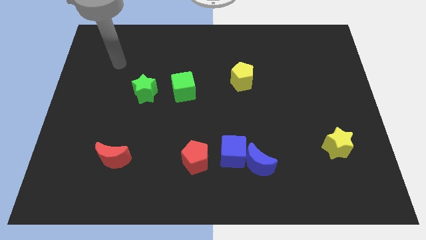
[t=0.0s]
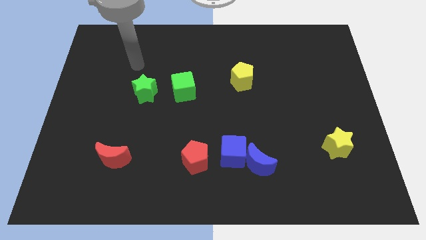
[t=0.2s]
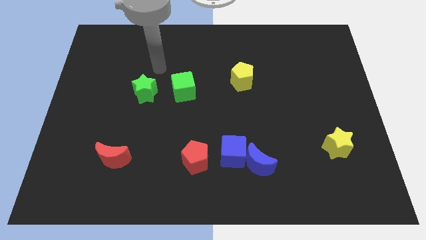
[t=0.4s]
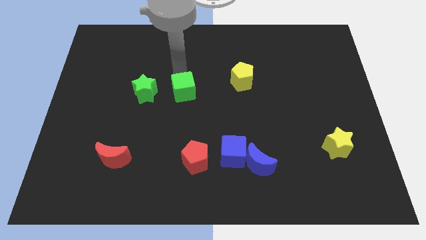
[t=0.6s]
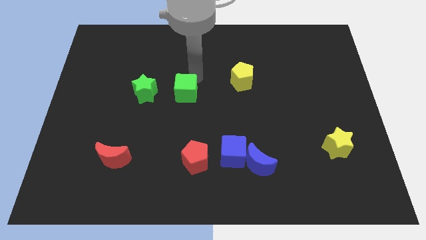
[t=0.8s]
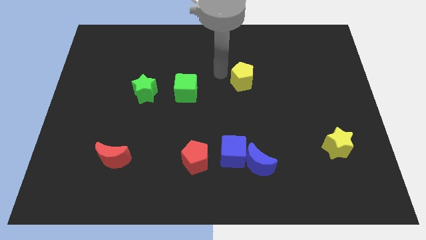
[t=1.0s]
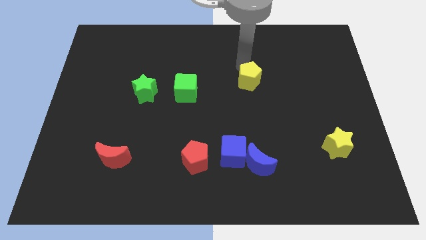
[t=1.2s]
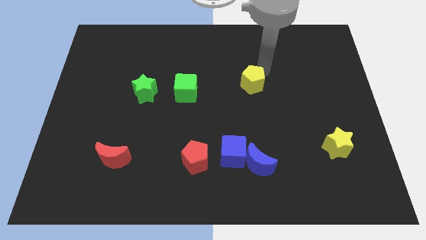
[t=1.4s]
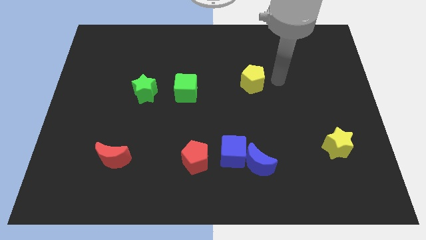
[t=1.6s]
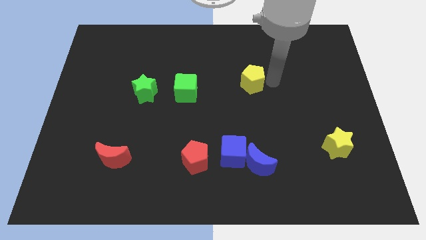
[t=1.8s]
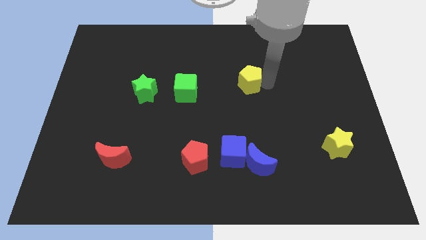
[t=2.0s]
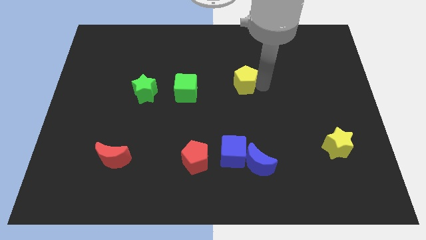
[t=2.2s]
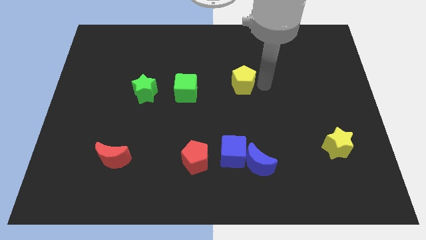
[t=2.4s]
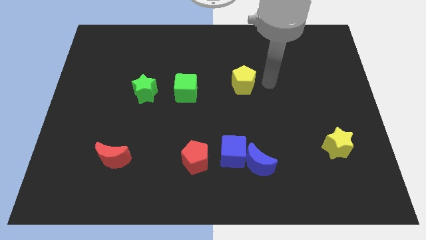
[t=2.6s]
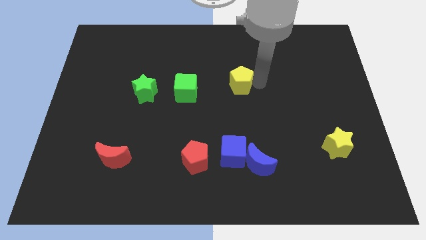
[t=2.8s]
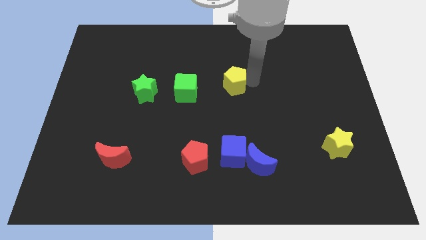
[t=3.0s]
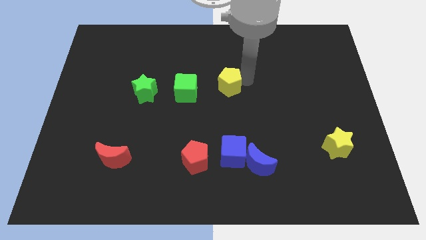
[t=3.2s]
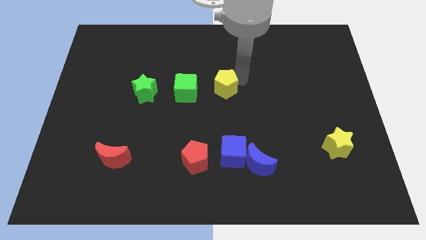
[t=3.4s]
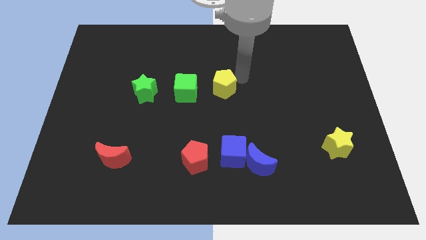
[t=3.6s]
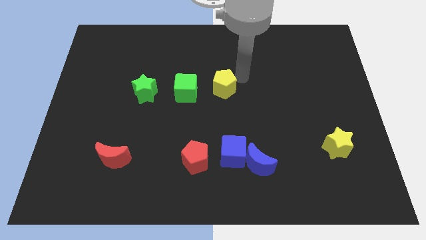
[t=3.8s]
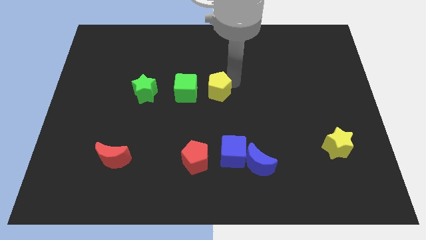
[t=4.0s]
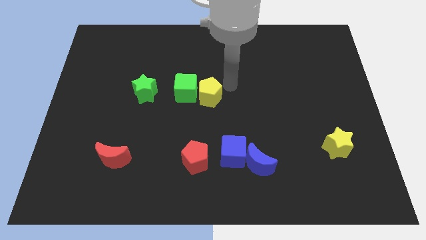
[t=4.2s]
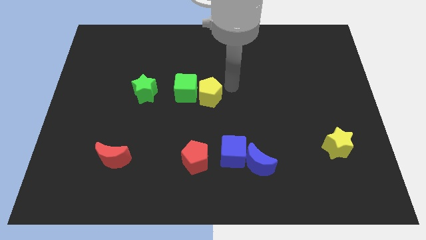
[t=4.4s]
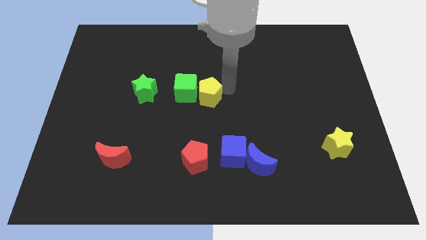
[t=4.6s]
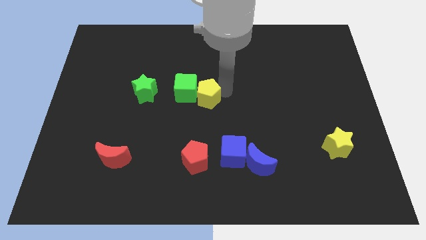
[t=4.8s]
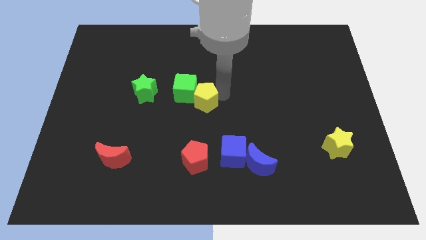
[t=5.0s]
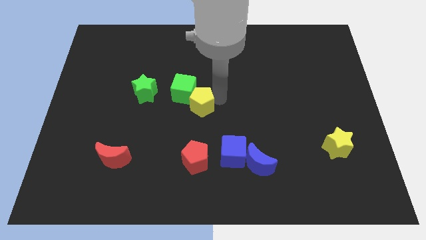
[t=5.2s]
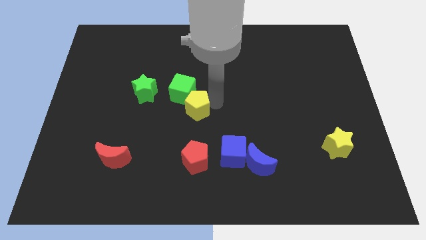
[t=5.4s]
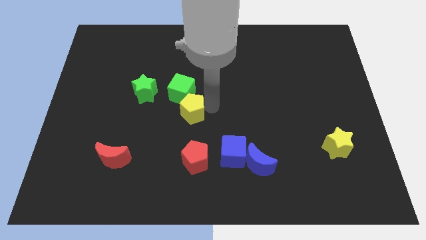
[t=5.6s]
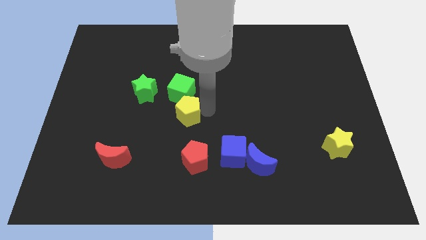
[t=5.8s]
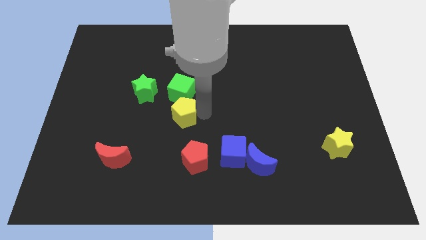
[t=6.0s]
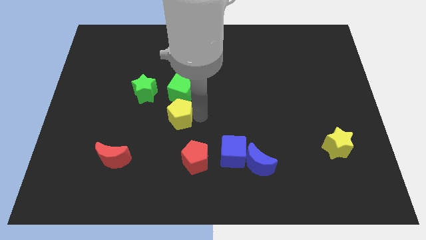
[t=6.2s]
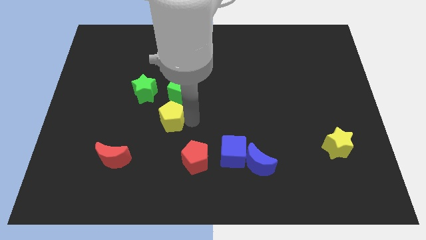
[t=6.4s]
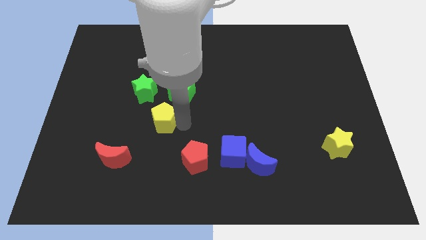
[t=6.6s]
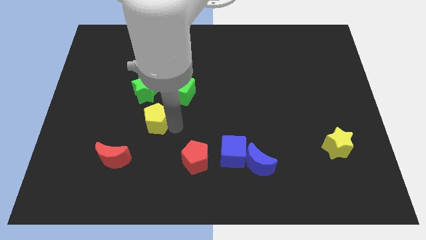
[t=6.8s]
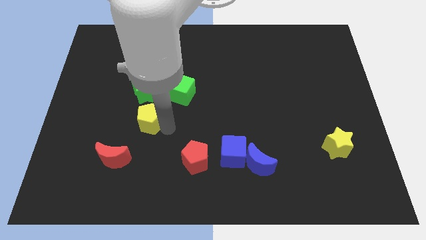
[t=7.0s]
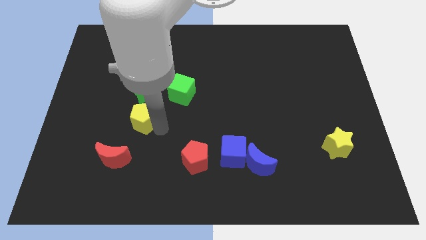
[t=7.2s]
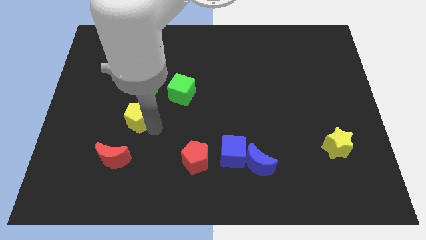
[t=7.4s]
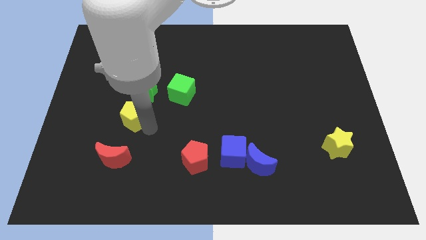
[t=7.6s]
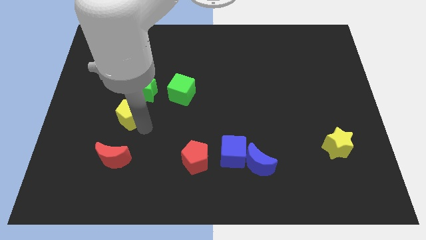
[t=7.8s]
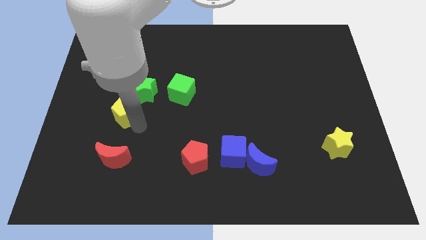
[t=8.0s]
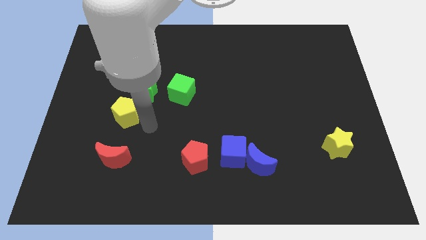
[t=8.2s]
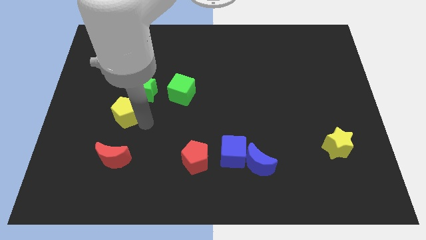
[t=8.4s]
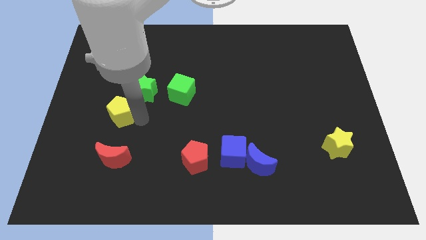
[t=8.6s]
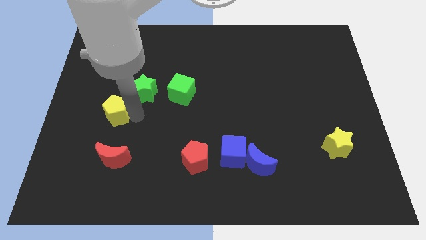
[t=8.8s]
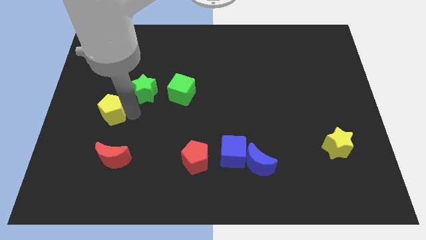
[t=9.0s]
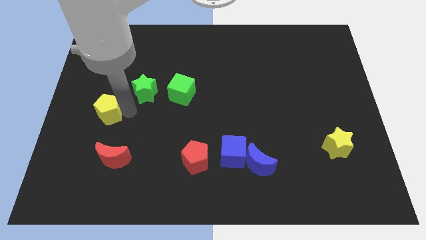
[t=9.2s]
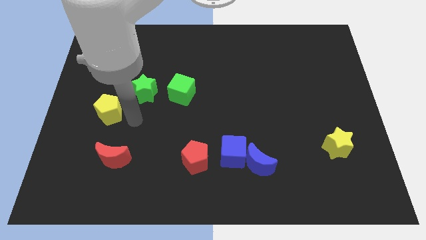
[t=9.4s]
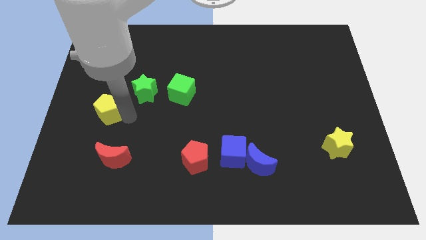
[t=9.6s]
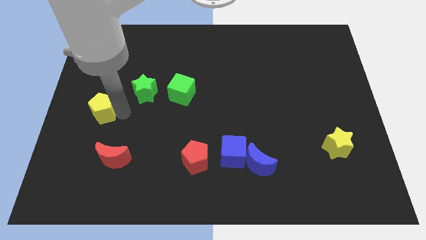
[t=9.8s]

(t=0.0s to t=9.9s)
move the yellow pentagon to the left side

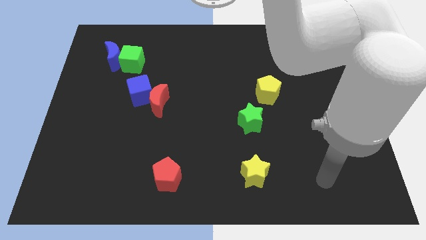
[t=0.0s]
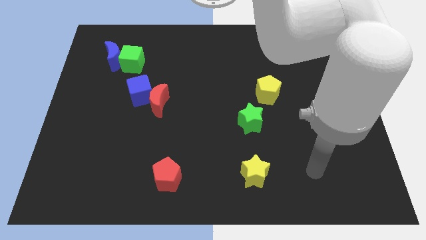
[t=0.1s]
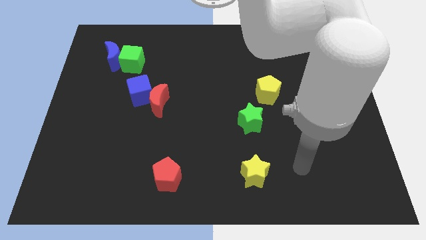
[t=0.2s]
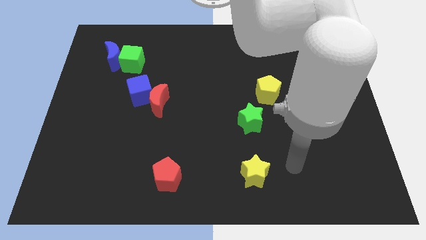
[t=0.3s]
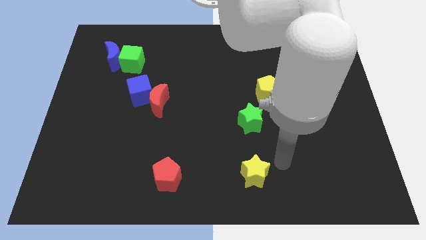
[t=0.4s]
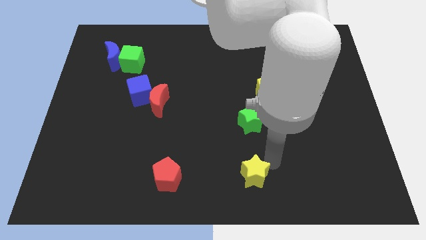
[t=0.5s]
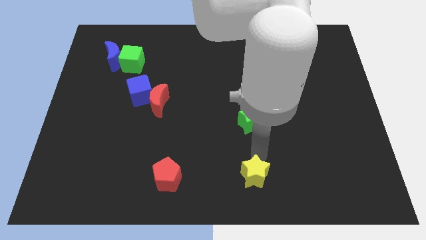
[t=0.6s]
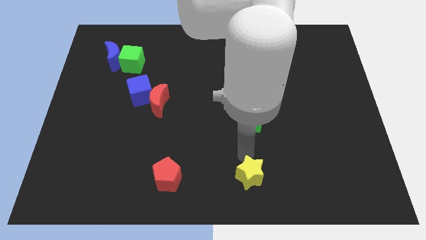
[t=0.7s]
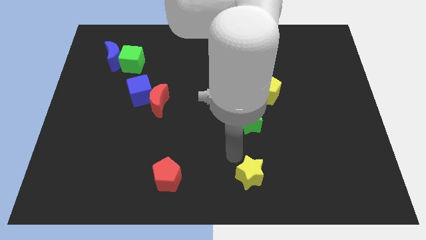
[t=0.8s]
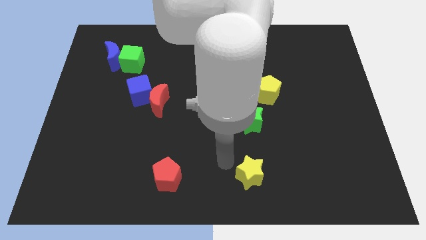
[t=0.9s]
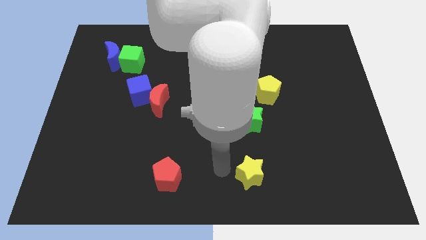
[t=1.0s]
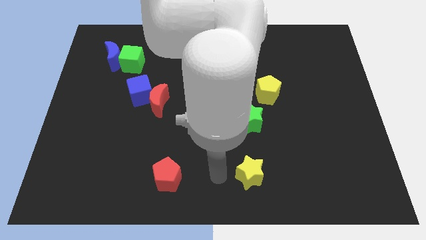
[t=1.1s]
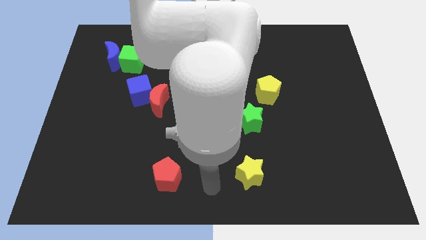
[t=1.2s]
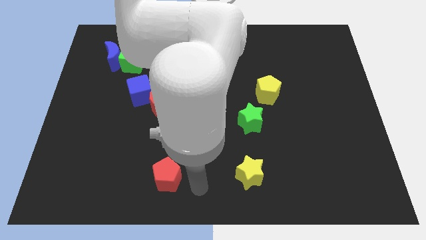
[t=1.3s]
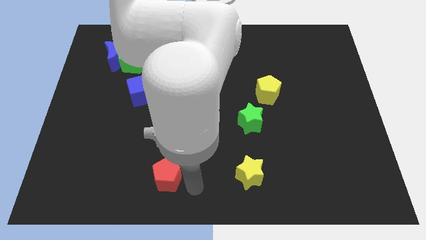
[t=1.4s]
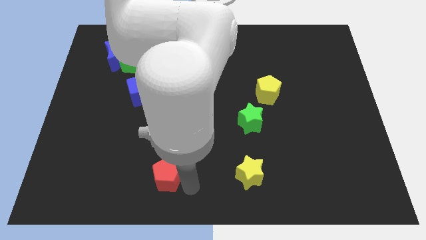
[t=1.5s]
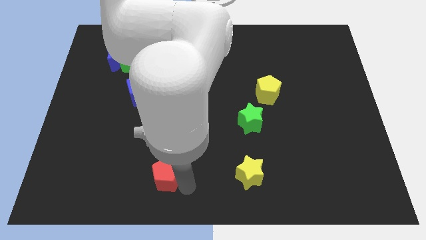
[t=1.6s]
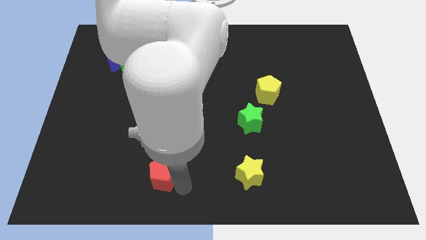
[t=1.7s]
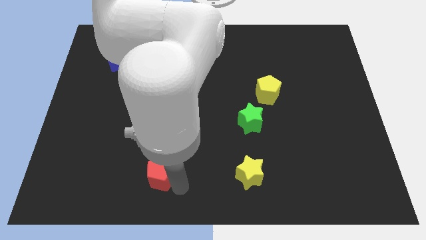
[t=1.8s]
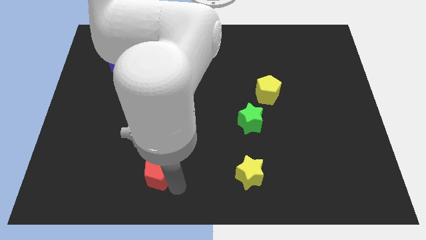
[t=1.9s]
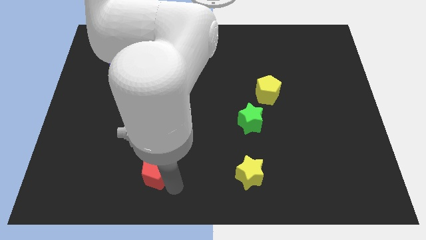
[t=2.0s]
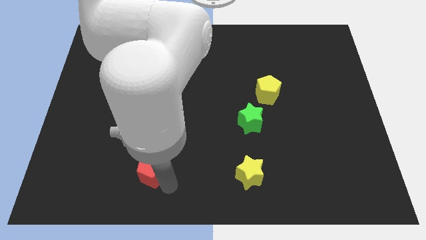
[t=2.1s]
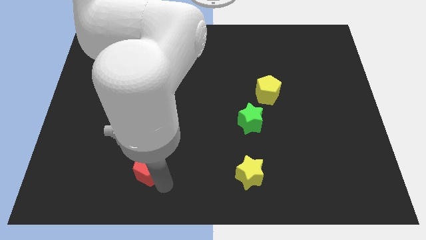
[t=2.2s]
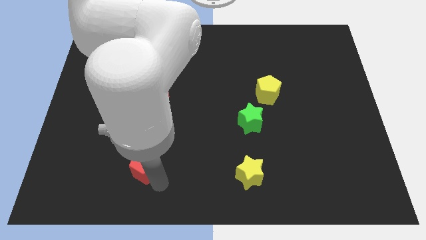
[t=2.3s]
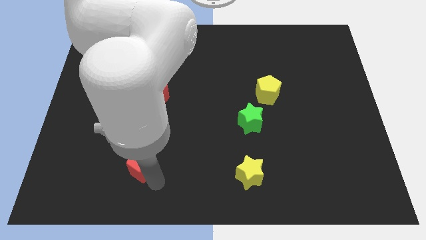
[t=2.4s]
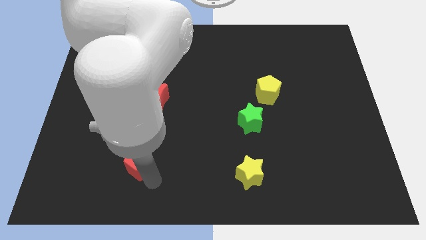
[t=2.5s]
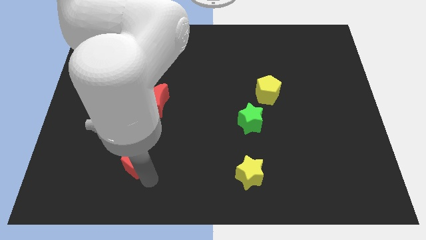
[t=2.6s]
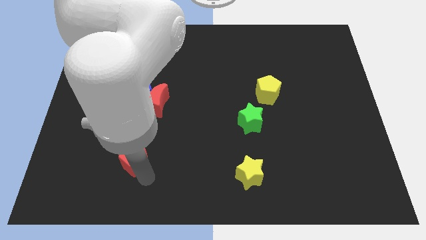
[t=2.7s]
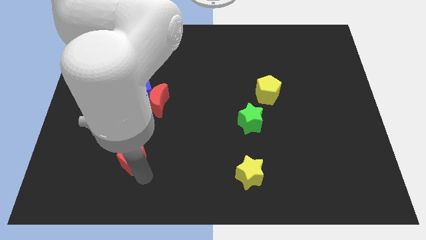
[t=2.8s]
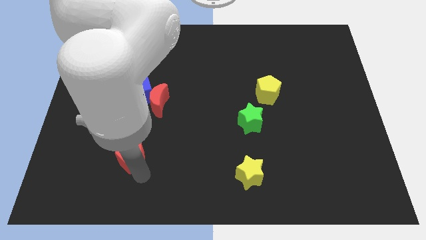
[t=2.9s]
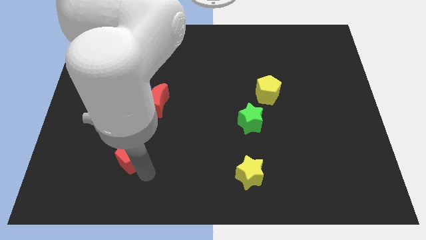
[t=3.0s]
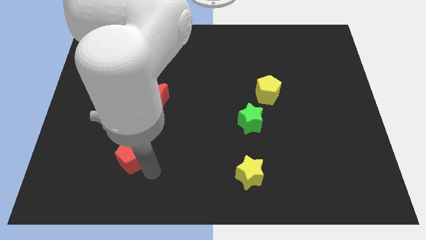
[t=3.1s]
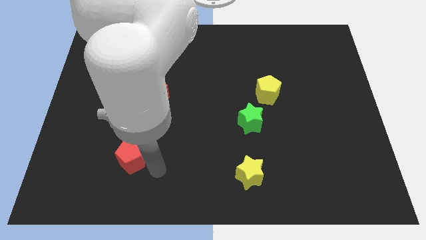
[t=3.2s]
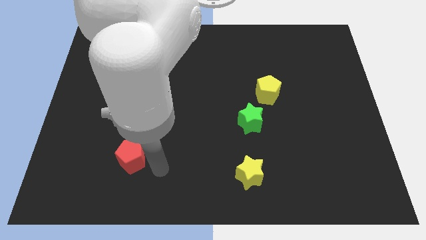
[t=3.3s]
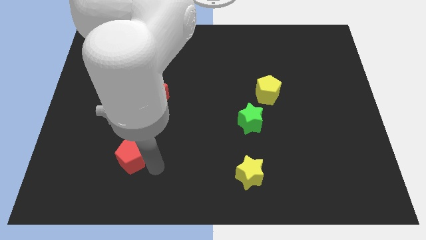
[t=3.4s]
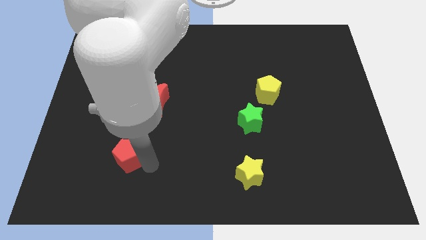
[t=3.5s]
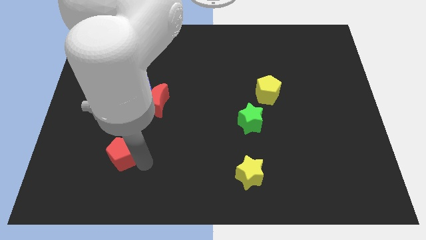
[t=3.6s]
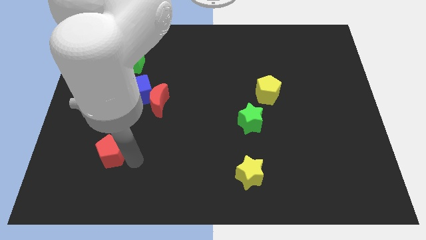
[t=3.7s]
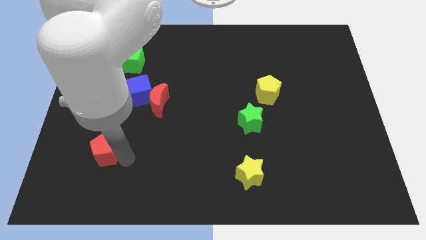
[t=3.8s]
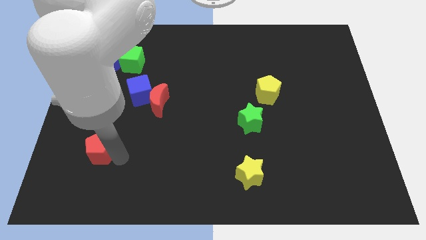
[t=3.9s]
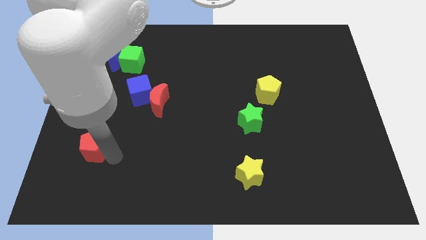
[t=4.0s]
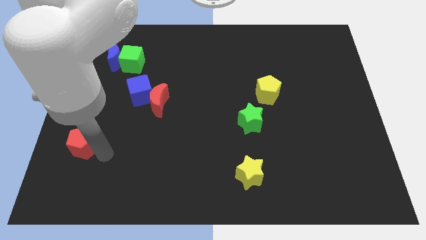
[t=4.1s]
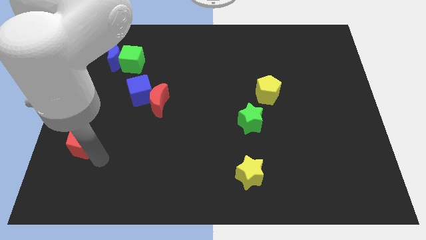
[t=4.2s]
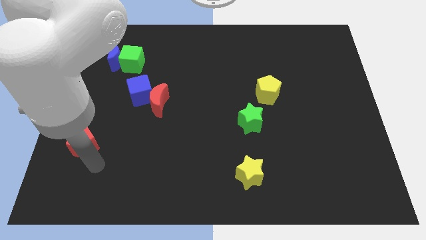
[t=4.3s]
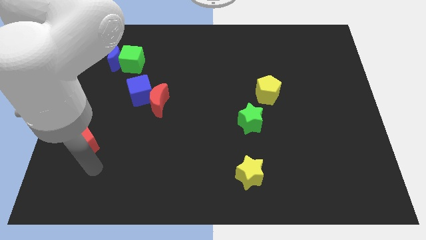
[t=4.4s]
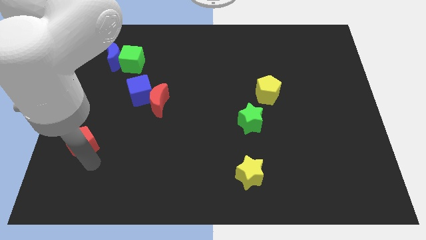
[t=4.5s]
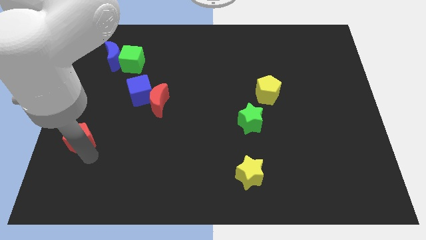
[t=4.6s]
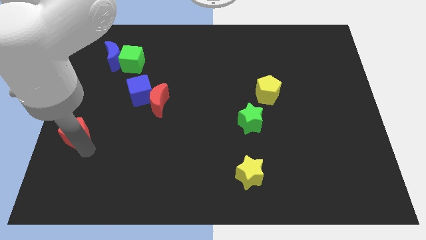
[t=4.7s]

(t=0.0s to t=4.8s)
push the red pentagon to the left side of the board
